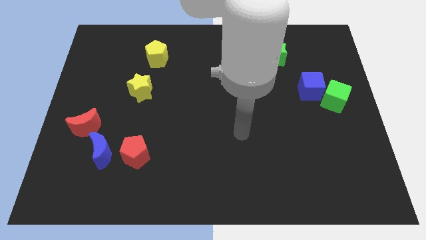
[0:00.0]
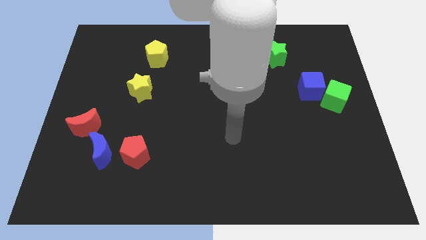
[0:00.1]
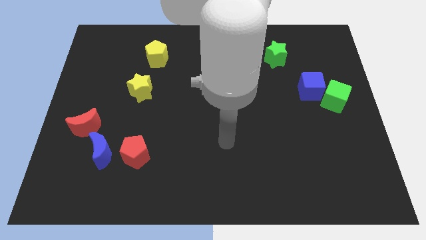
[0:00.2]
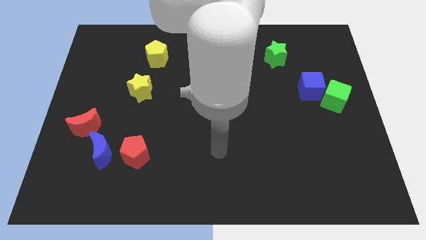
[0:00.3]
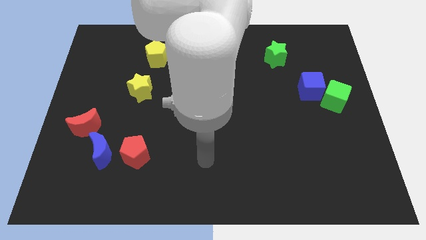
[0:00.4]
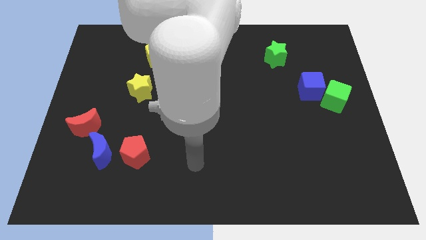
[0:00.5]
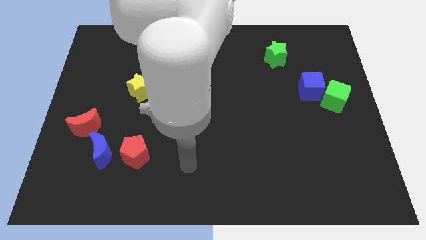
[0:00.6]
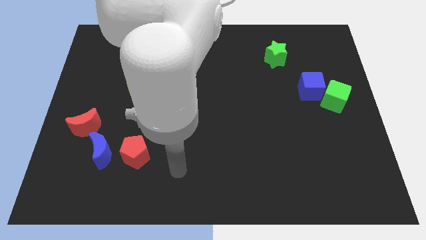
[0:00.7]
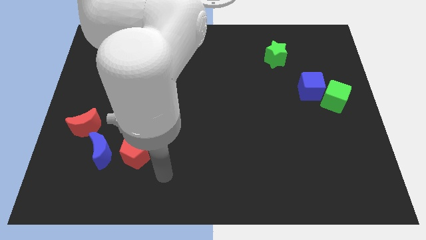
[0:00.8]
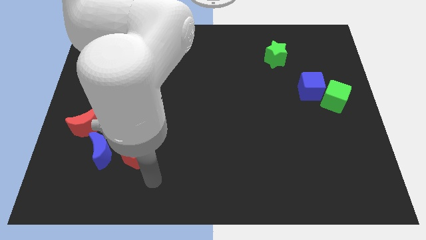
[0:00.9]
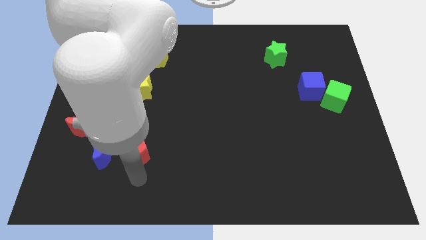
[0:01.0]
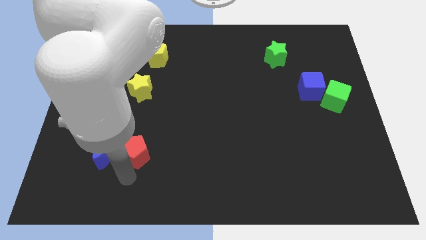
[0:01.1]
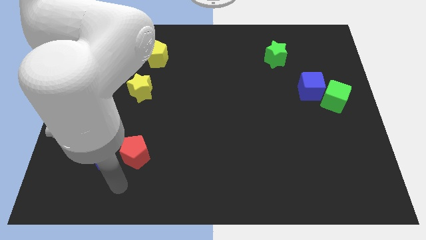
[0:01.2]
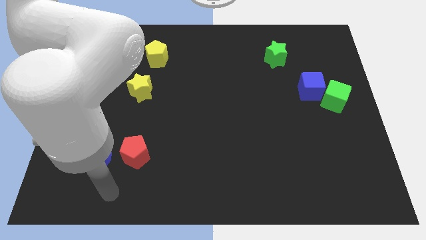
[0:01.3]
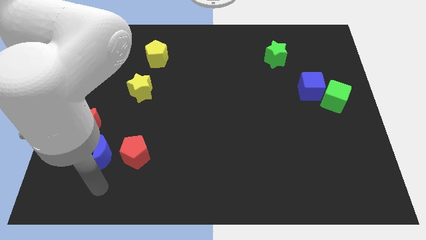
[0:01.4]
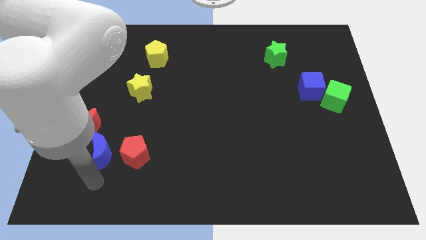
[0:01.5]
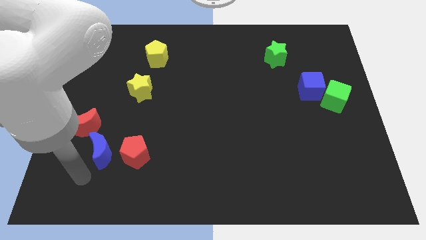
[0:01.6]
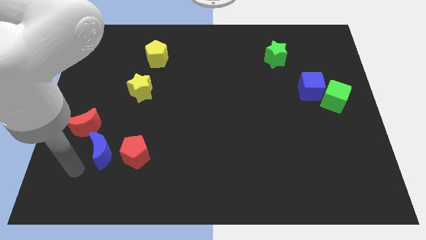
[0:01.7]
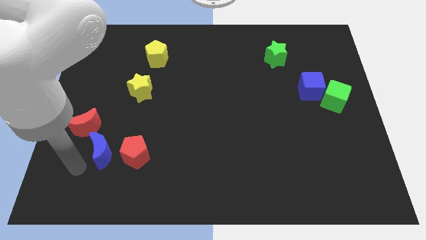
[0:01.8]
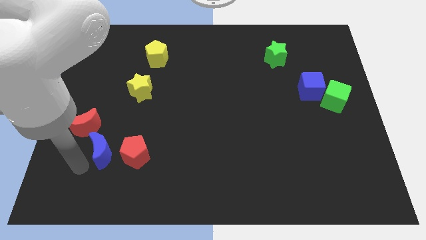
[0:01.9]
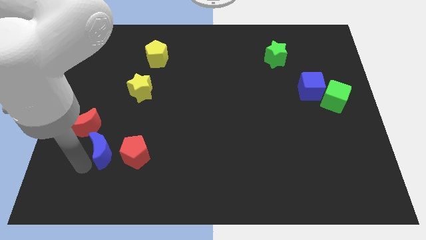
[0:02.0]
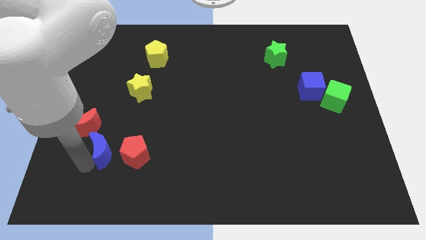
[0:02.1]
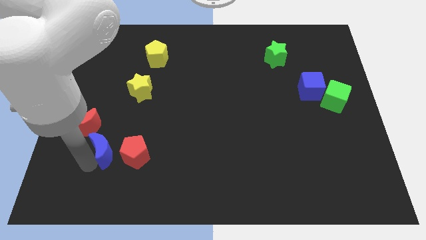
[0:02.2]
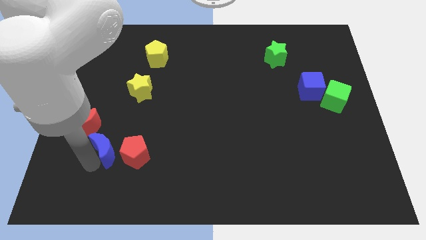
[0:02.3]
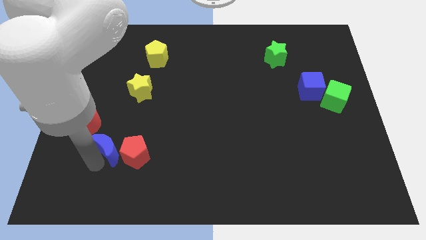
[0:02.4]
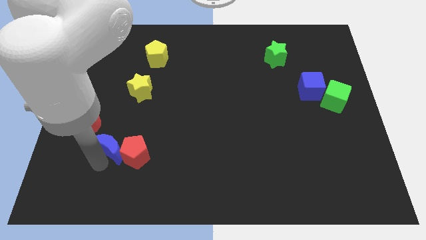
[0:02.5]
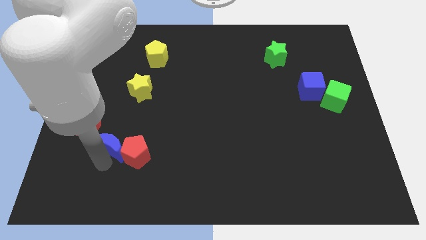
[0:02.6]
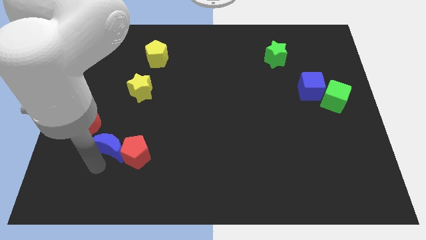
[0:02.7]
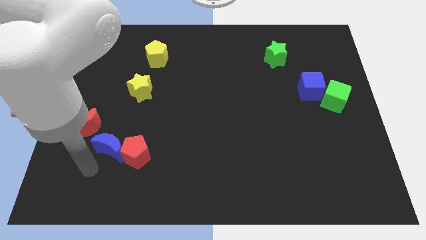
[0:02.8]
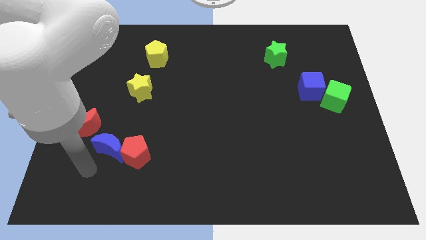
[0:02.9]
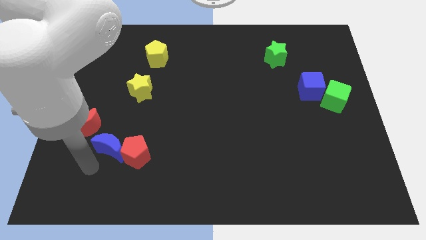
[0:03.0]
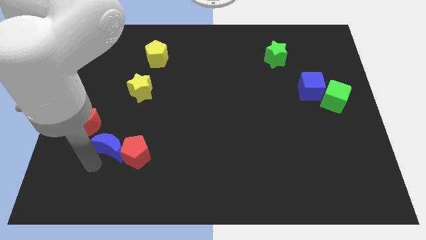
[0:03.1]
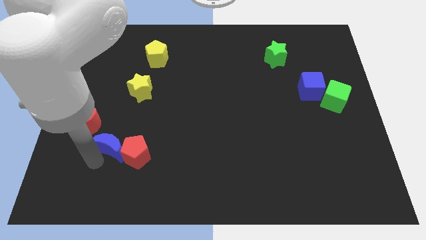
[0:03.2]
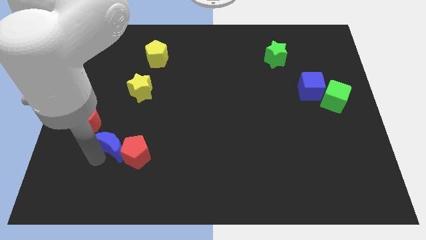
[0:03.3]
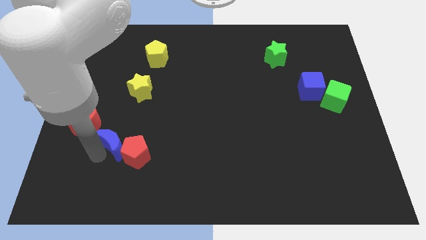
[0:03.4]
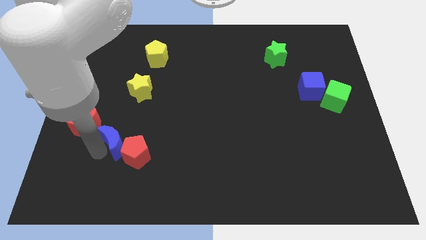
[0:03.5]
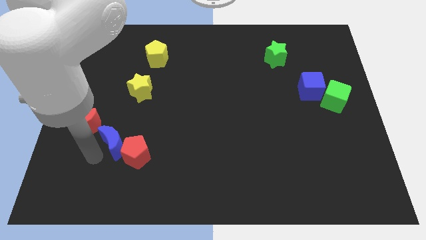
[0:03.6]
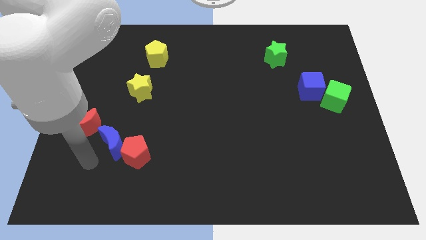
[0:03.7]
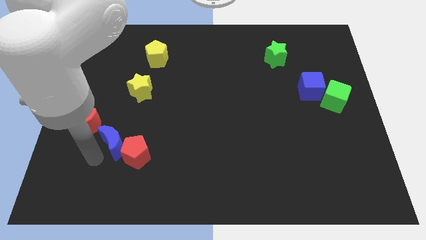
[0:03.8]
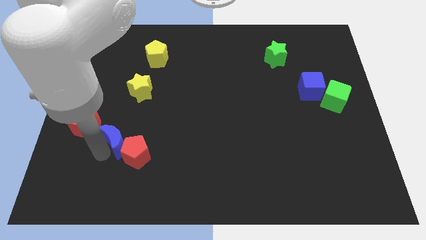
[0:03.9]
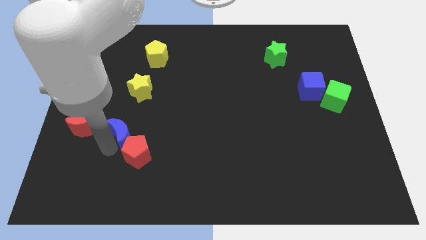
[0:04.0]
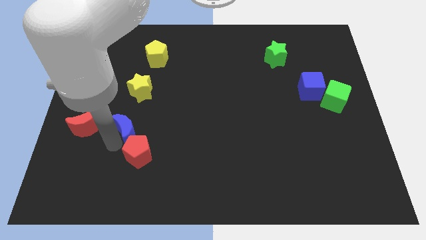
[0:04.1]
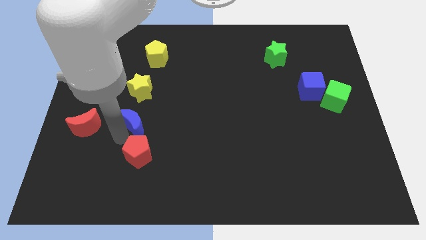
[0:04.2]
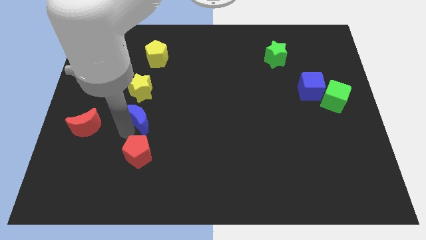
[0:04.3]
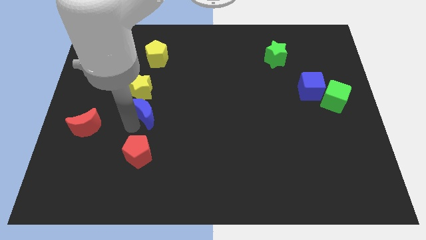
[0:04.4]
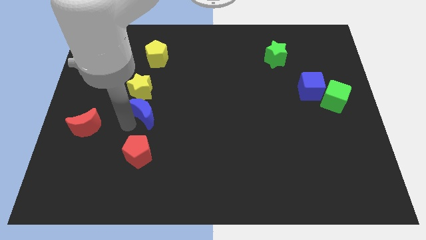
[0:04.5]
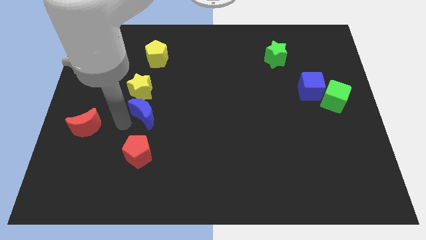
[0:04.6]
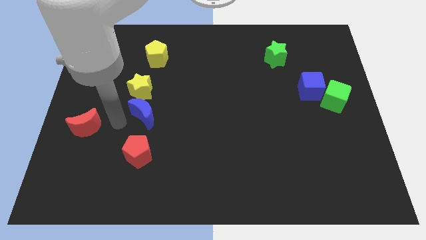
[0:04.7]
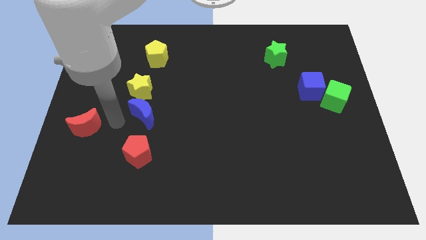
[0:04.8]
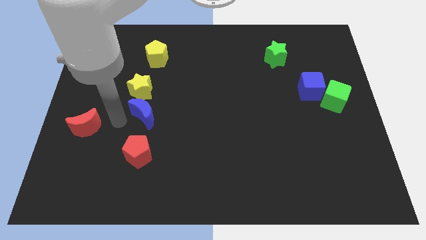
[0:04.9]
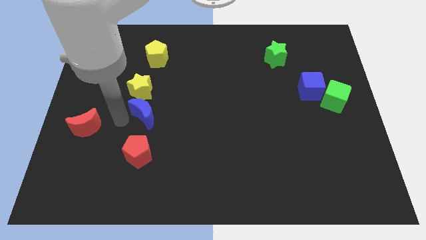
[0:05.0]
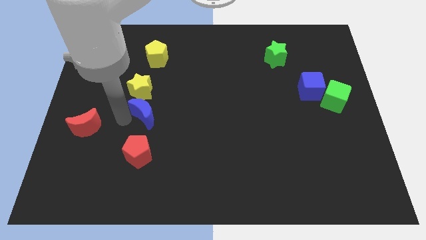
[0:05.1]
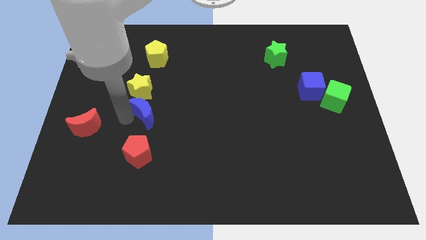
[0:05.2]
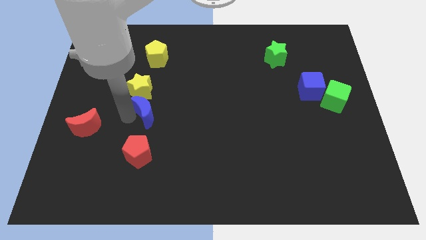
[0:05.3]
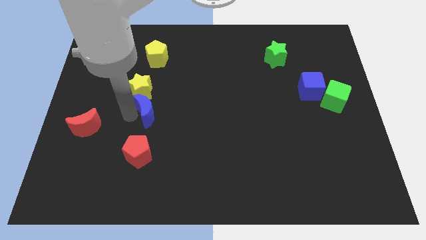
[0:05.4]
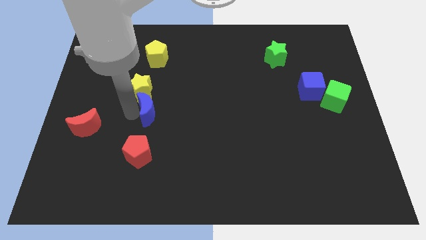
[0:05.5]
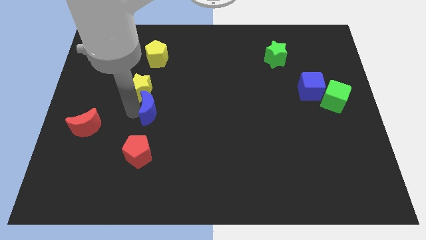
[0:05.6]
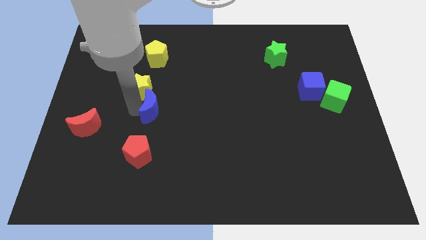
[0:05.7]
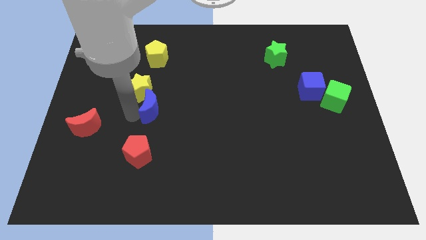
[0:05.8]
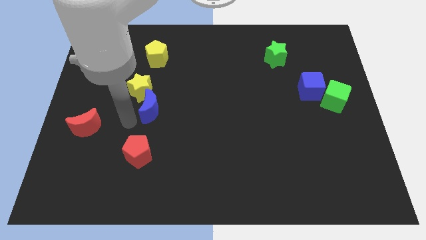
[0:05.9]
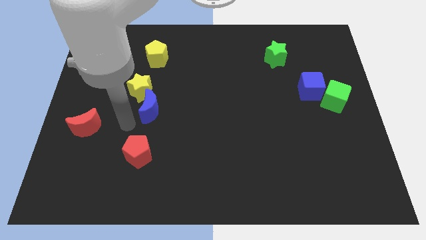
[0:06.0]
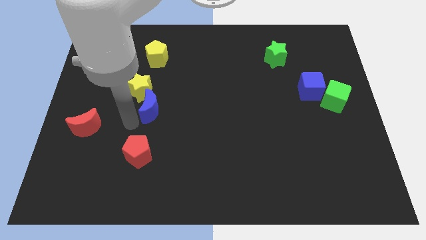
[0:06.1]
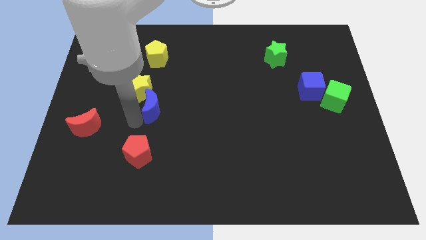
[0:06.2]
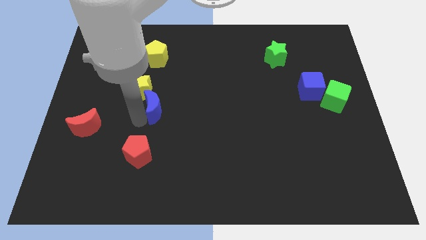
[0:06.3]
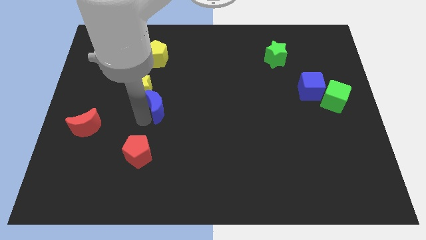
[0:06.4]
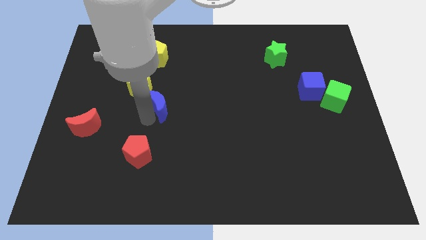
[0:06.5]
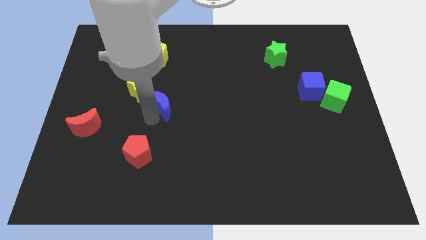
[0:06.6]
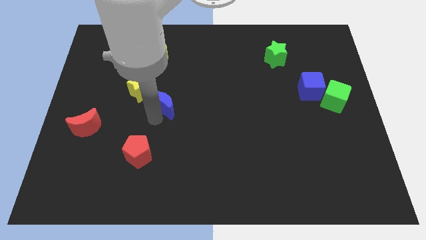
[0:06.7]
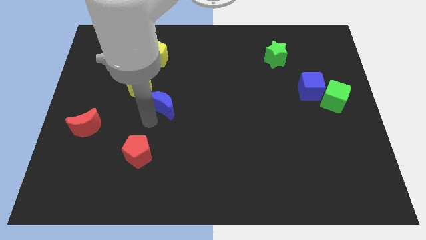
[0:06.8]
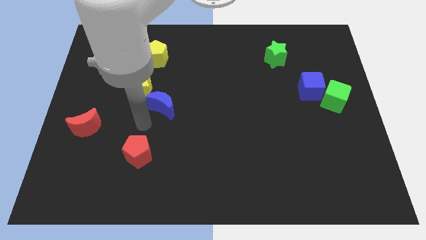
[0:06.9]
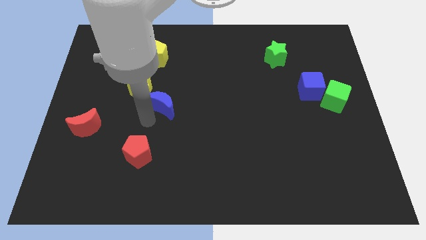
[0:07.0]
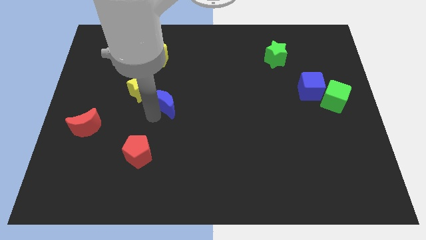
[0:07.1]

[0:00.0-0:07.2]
move the blue moon to the right side of the yellow star

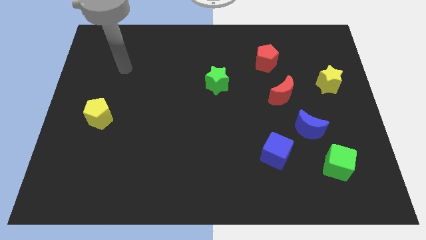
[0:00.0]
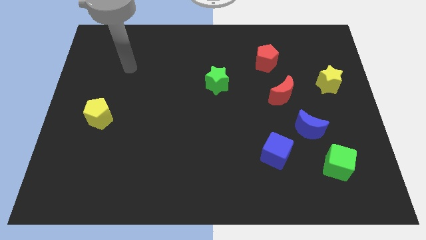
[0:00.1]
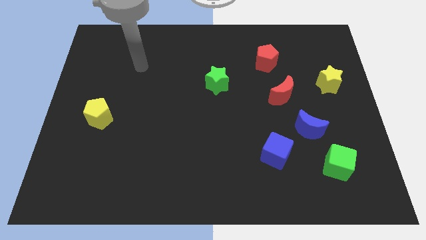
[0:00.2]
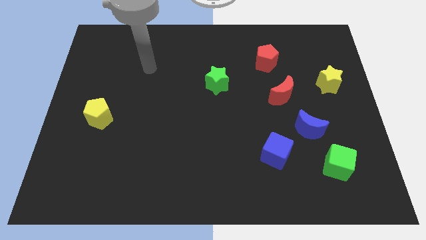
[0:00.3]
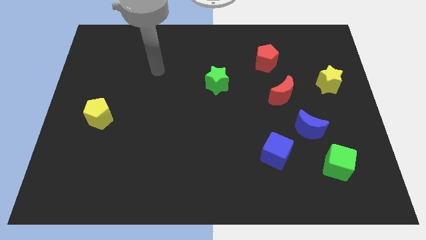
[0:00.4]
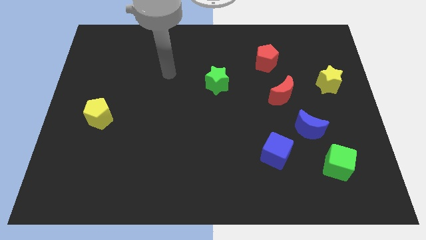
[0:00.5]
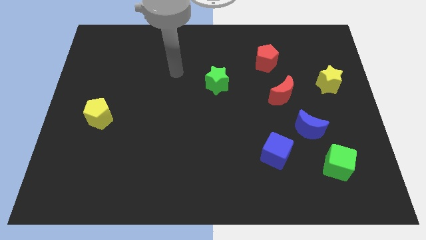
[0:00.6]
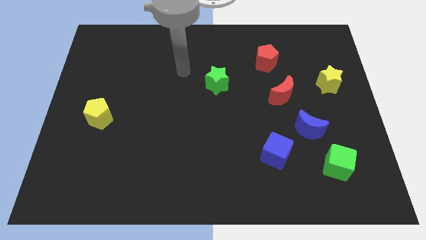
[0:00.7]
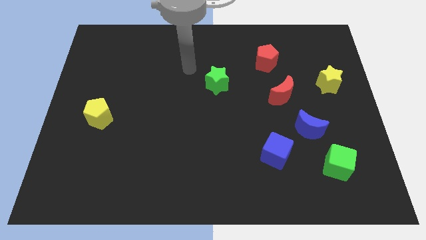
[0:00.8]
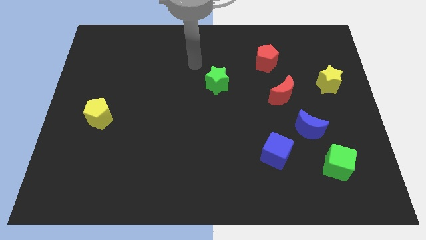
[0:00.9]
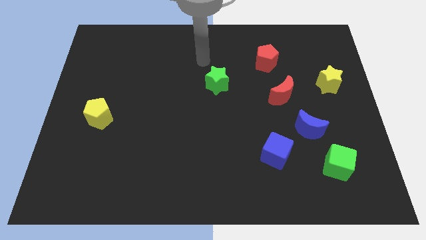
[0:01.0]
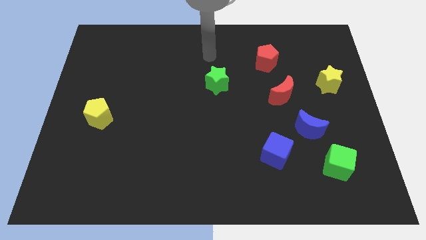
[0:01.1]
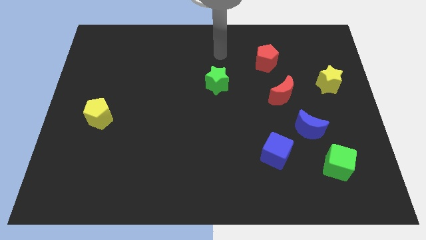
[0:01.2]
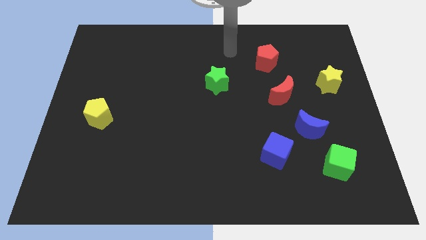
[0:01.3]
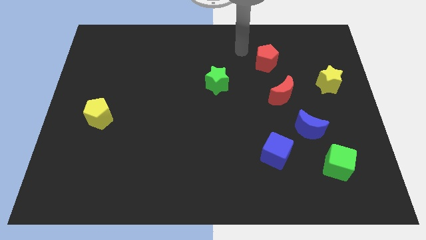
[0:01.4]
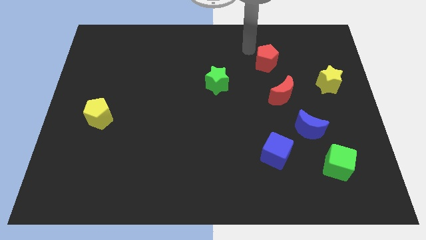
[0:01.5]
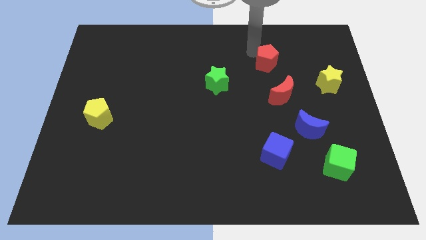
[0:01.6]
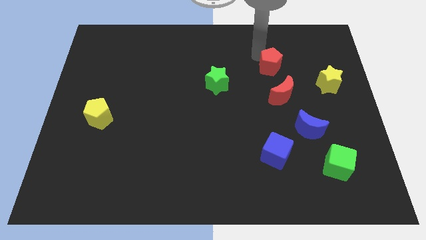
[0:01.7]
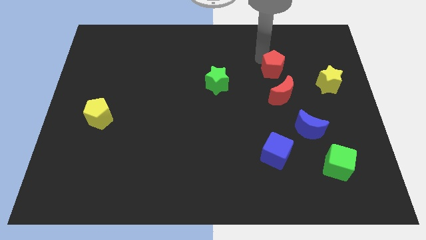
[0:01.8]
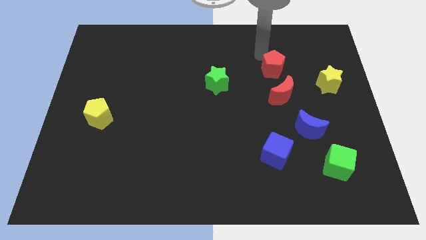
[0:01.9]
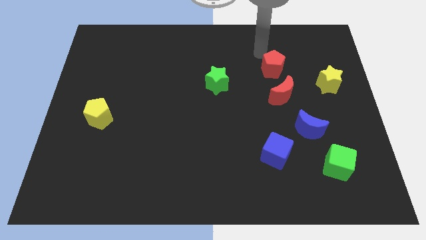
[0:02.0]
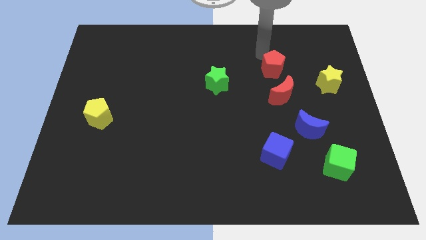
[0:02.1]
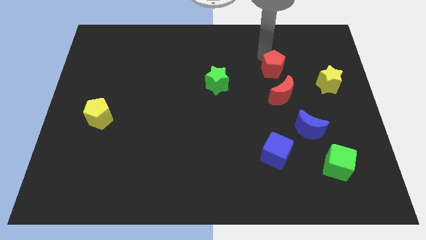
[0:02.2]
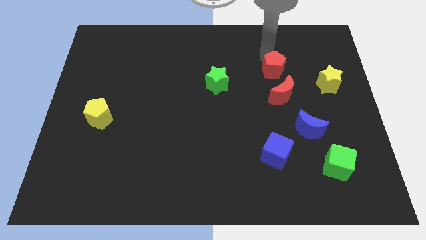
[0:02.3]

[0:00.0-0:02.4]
move the red pentagon to the left side of the yellow star
